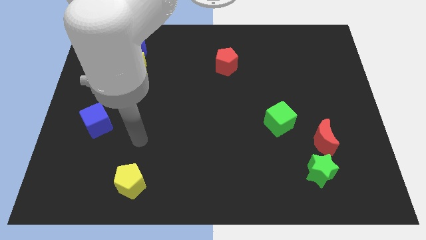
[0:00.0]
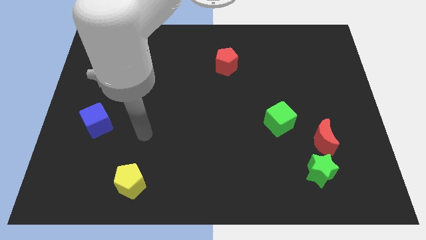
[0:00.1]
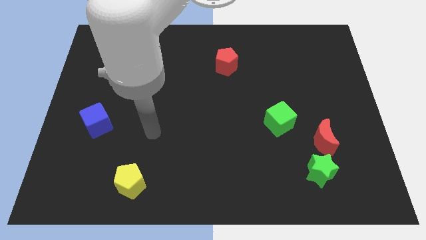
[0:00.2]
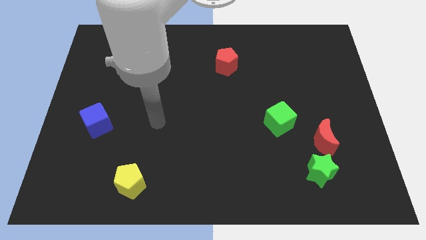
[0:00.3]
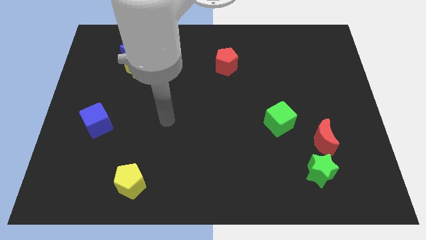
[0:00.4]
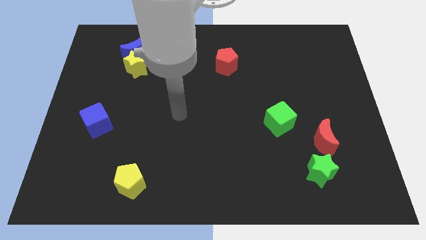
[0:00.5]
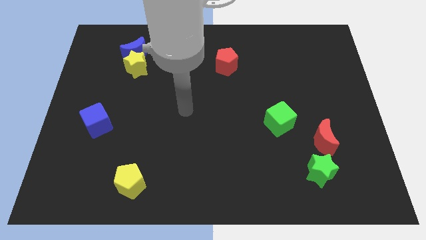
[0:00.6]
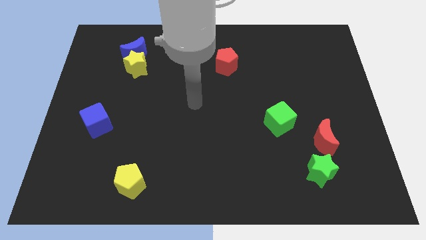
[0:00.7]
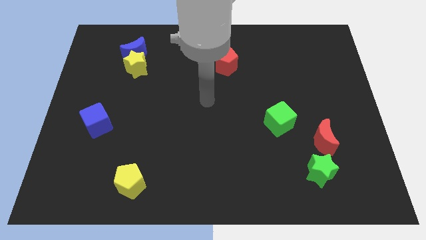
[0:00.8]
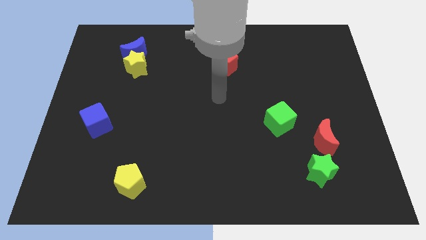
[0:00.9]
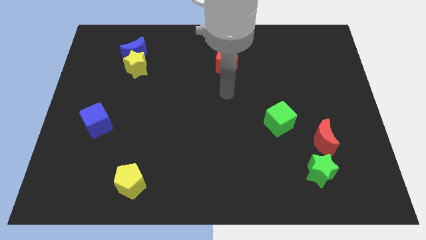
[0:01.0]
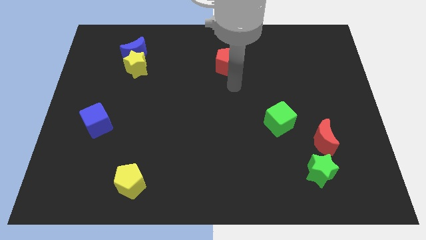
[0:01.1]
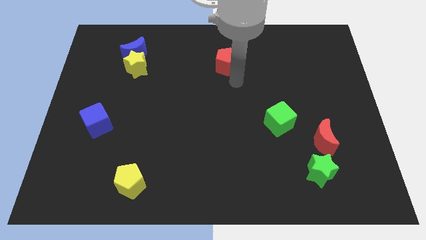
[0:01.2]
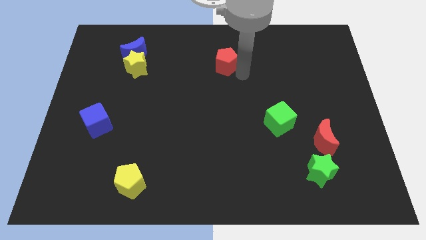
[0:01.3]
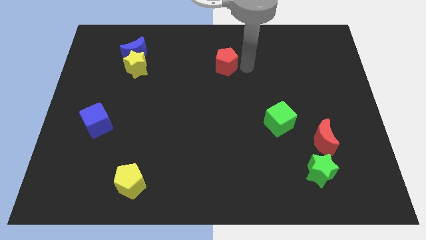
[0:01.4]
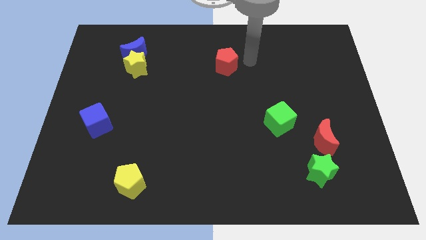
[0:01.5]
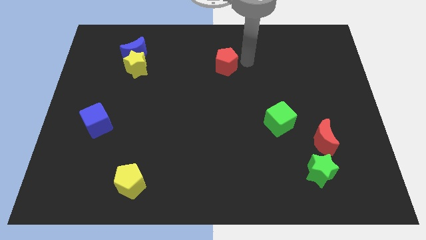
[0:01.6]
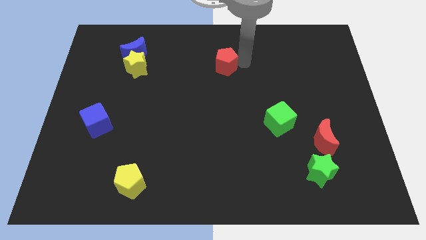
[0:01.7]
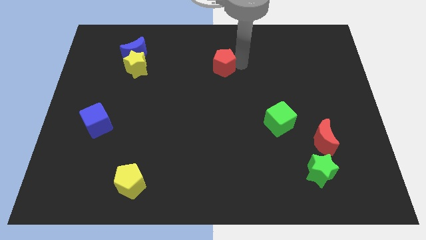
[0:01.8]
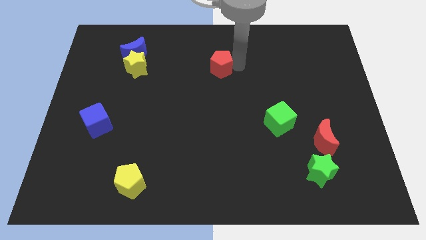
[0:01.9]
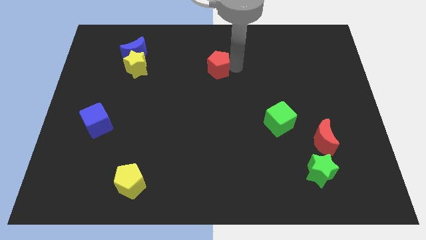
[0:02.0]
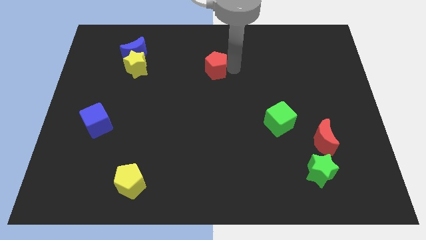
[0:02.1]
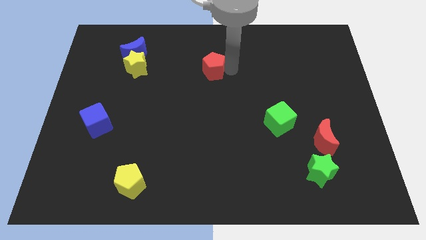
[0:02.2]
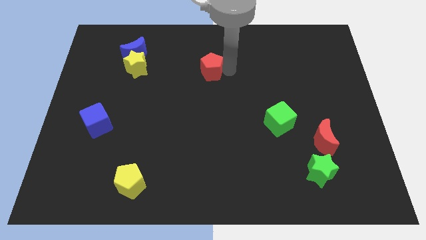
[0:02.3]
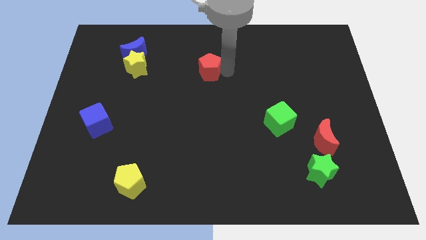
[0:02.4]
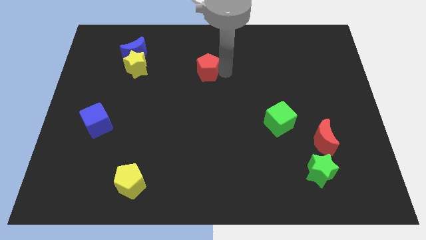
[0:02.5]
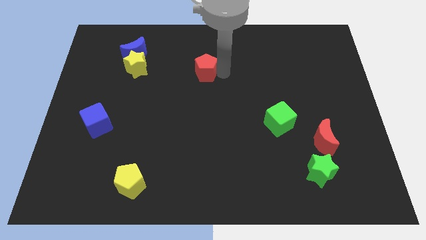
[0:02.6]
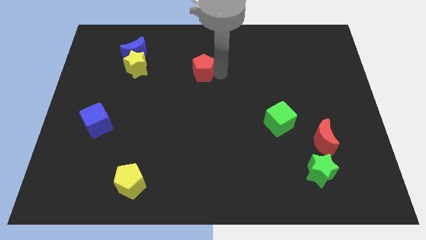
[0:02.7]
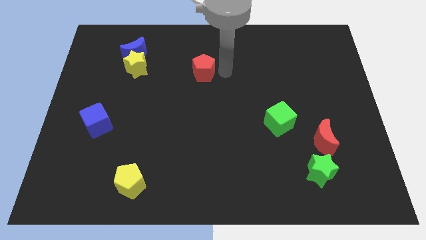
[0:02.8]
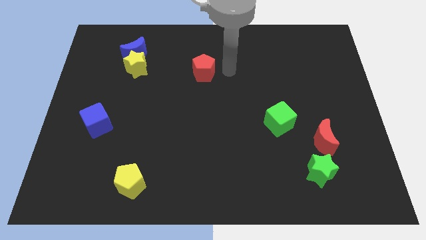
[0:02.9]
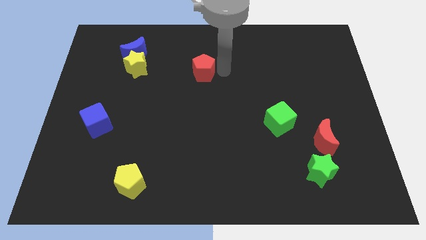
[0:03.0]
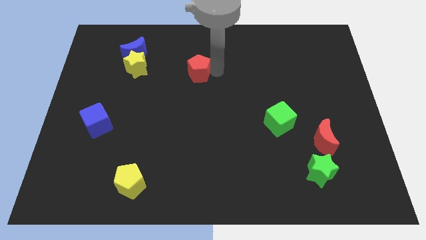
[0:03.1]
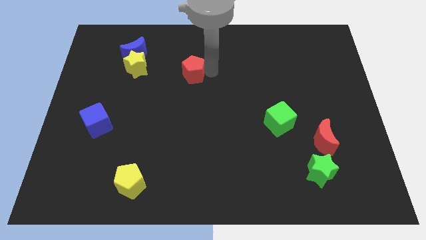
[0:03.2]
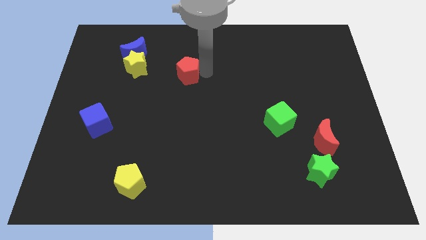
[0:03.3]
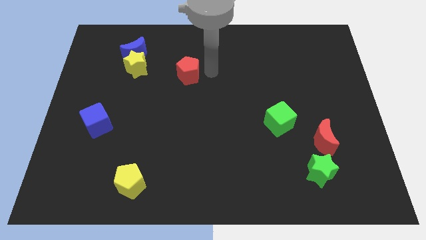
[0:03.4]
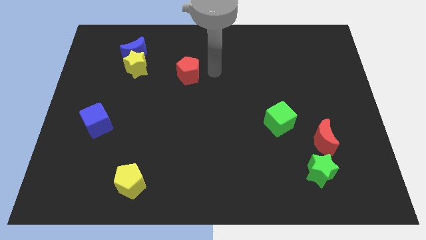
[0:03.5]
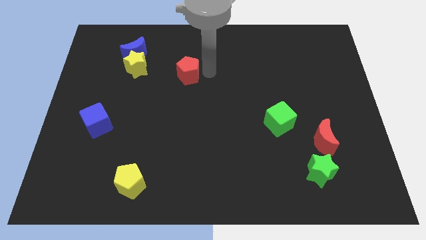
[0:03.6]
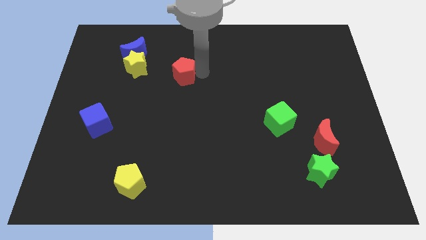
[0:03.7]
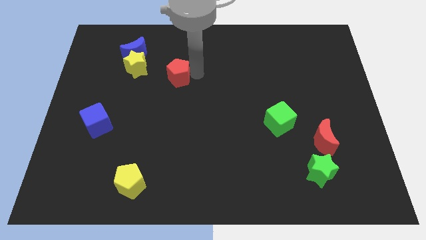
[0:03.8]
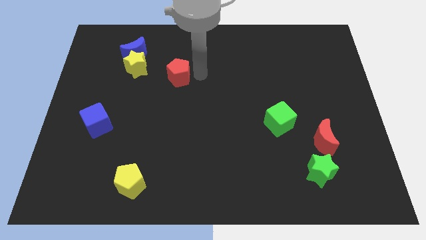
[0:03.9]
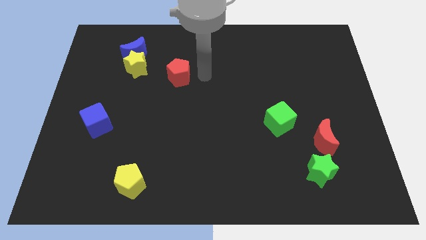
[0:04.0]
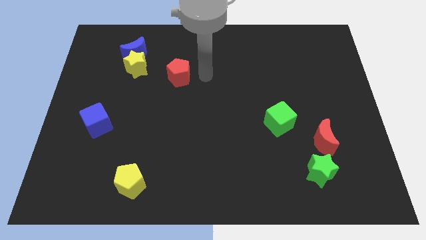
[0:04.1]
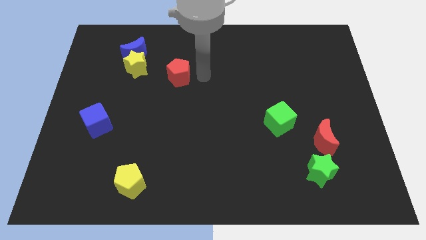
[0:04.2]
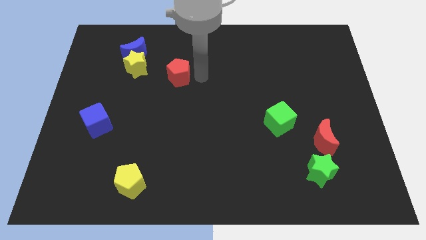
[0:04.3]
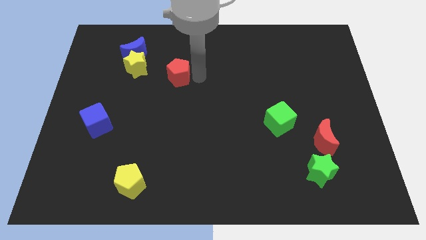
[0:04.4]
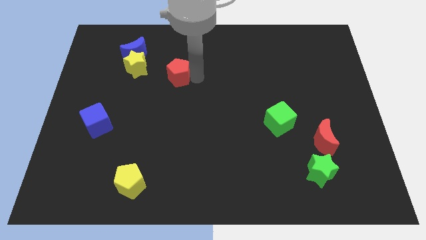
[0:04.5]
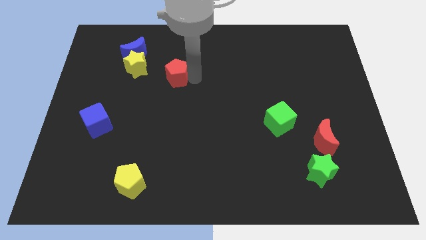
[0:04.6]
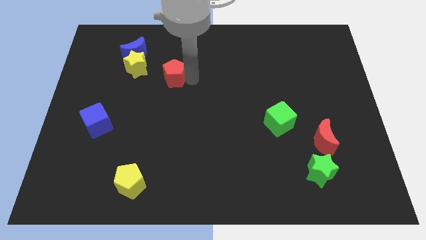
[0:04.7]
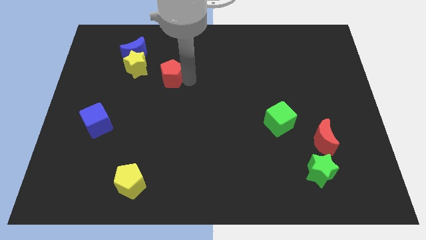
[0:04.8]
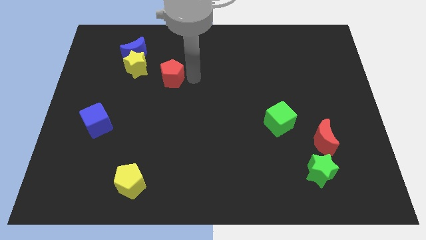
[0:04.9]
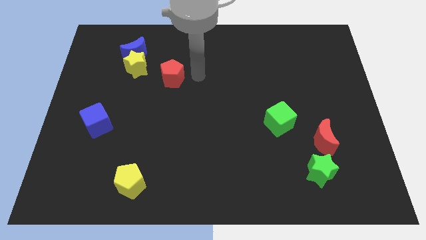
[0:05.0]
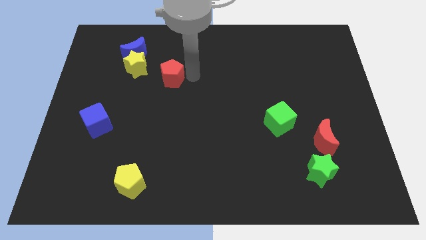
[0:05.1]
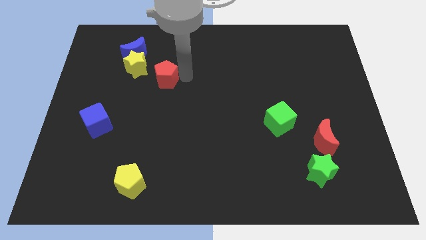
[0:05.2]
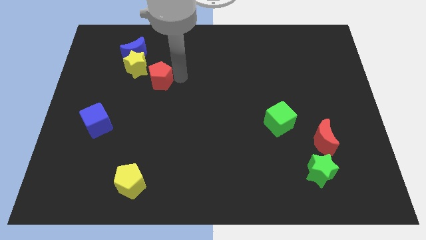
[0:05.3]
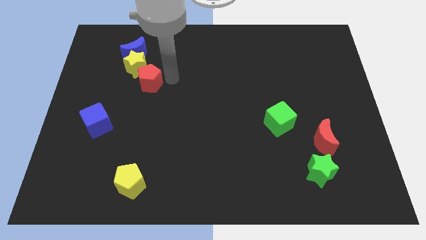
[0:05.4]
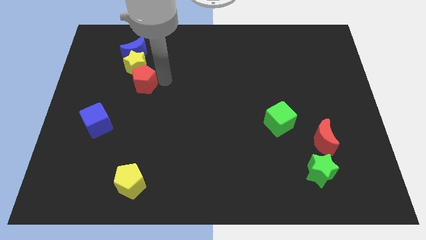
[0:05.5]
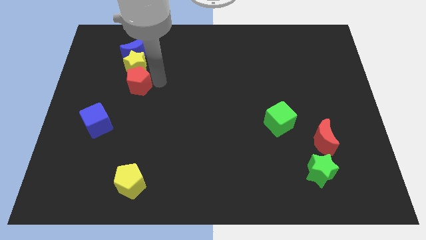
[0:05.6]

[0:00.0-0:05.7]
slide the red pentagon to the left

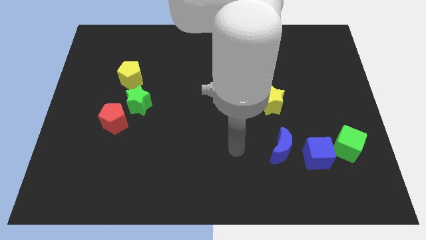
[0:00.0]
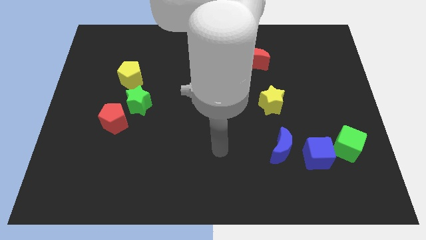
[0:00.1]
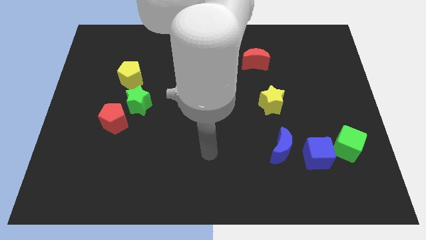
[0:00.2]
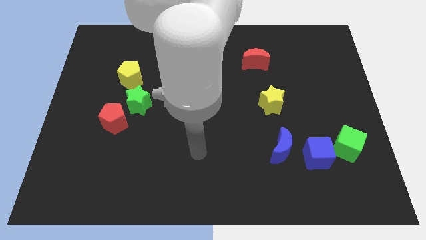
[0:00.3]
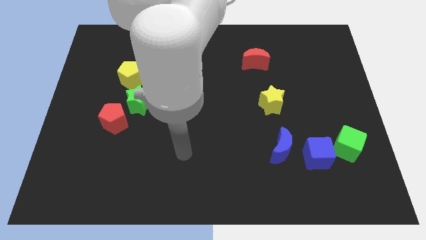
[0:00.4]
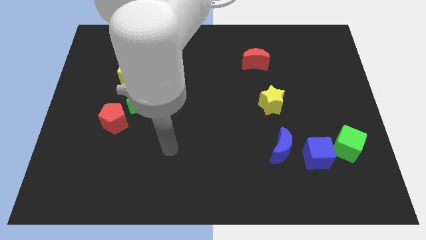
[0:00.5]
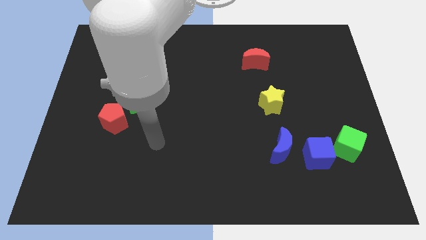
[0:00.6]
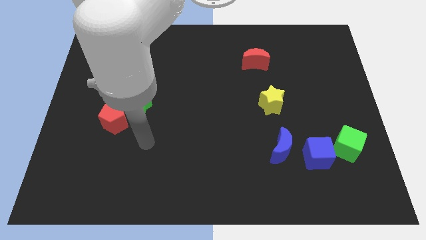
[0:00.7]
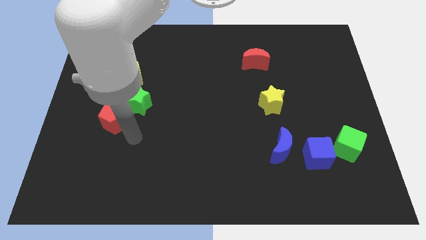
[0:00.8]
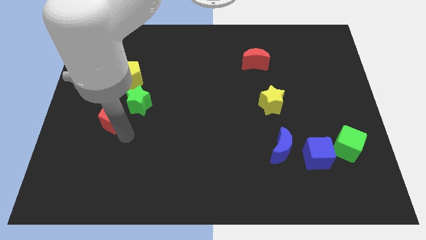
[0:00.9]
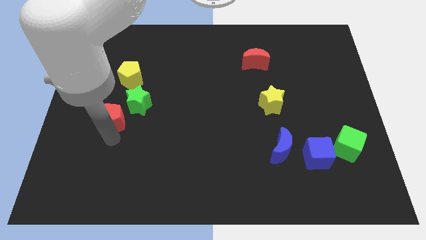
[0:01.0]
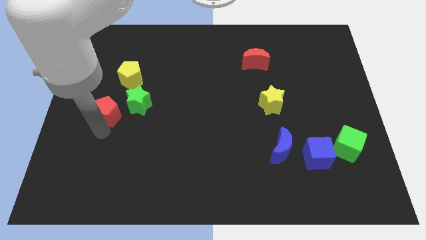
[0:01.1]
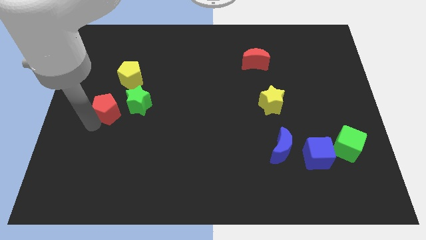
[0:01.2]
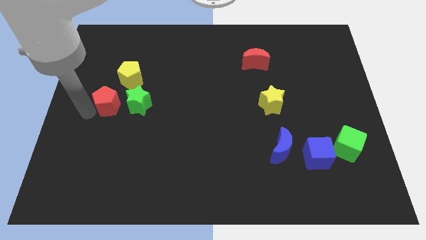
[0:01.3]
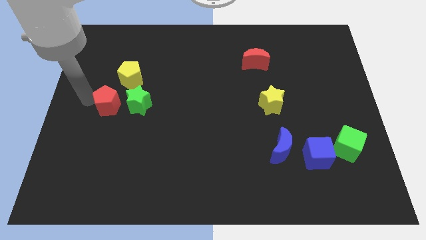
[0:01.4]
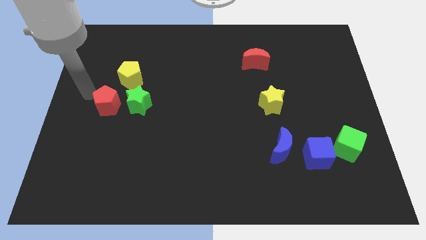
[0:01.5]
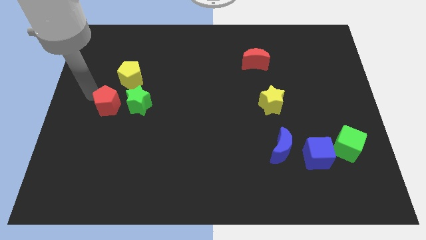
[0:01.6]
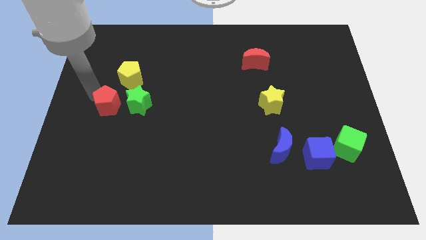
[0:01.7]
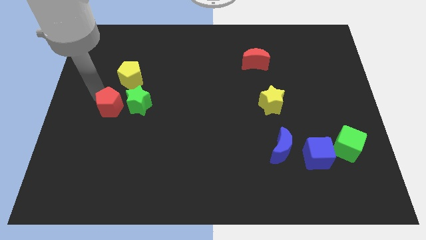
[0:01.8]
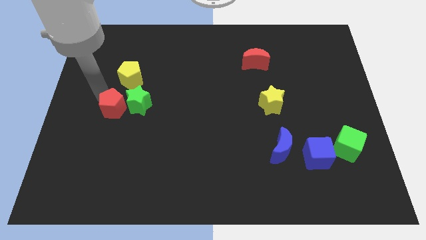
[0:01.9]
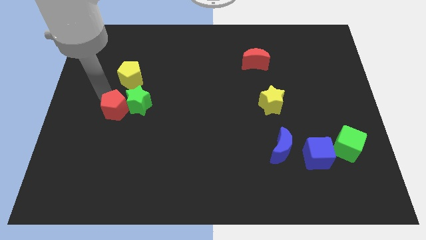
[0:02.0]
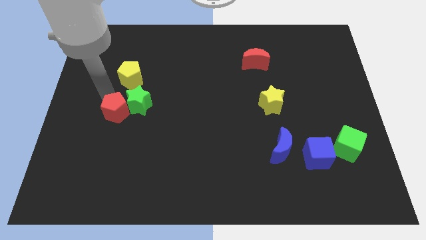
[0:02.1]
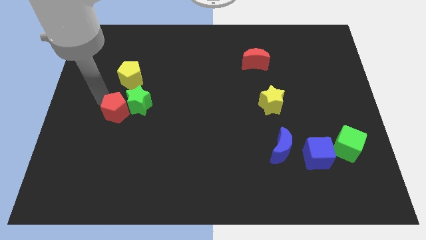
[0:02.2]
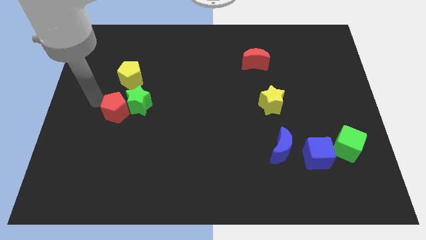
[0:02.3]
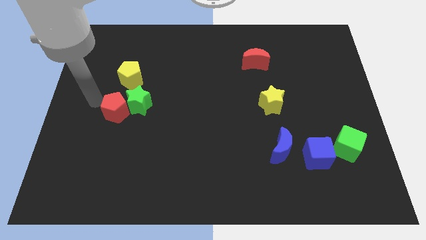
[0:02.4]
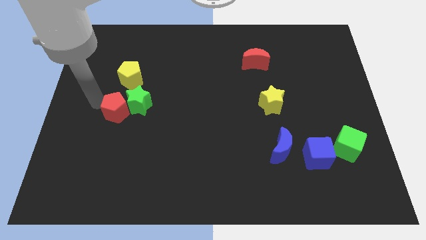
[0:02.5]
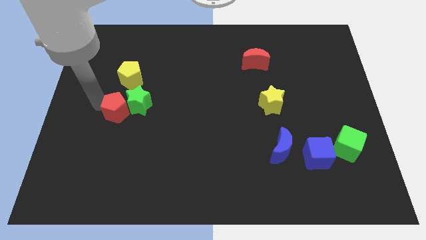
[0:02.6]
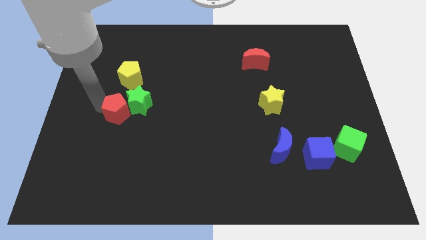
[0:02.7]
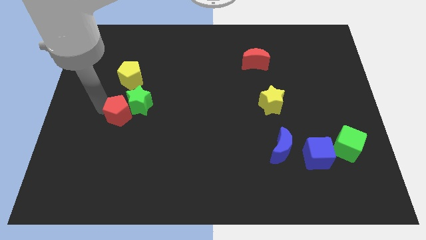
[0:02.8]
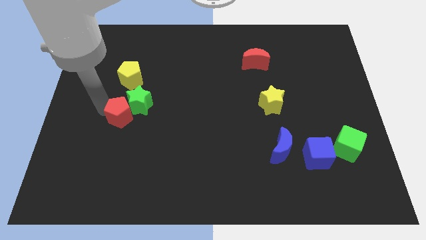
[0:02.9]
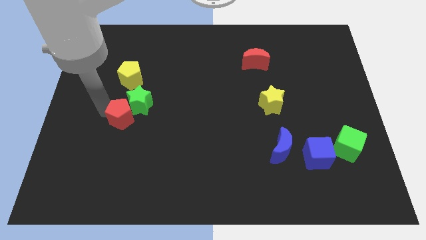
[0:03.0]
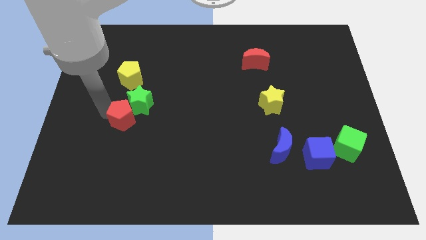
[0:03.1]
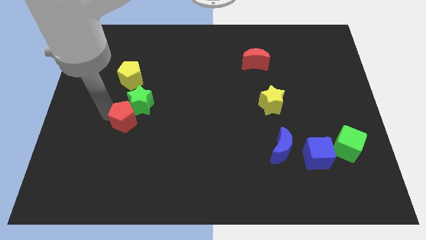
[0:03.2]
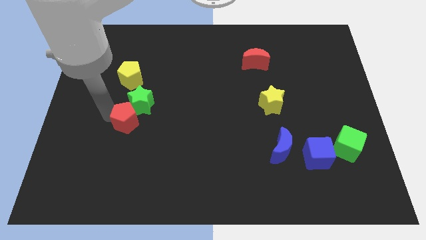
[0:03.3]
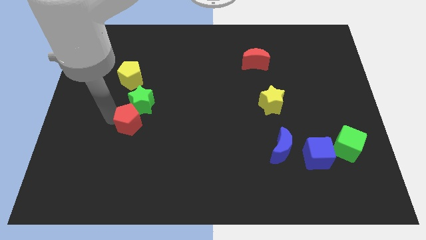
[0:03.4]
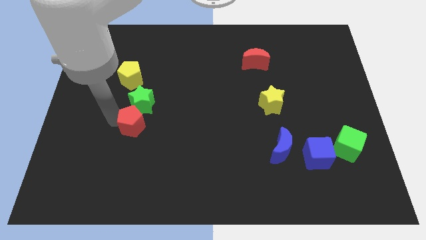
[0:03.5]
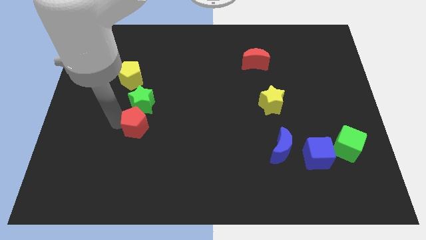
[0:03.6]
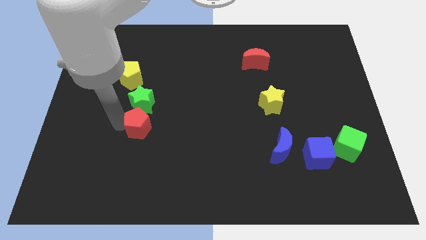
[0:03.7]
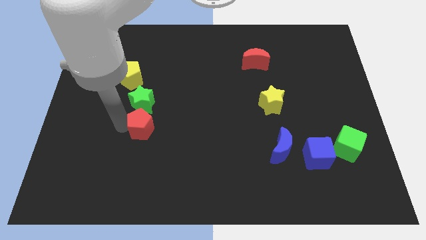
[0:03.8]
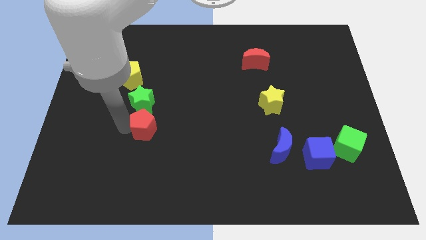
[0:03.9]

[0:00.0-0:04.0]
move the red pentagon to the right a little
